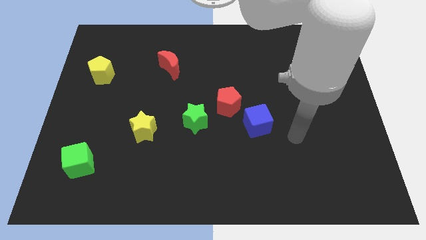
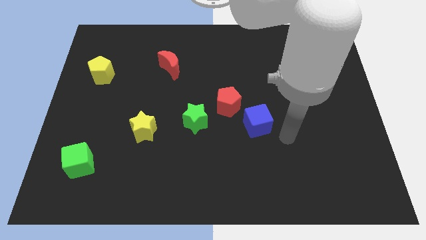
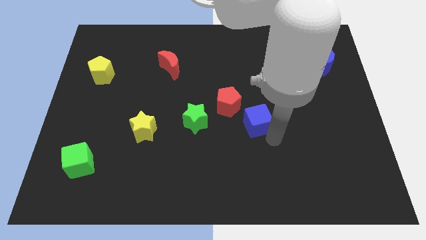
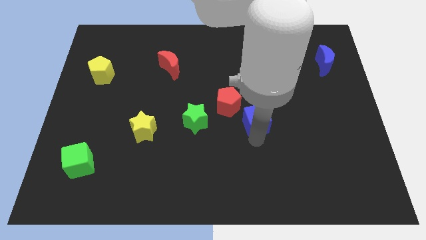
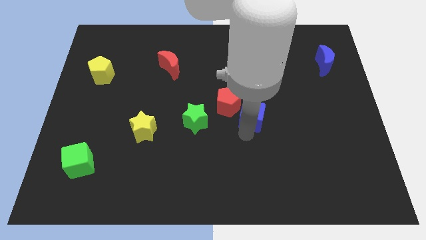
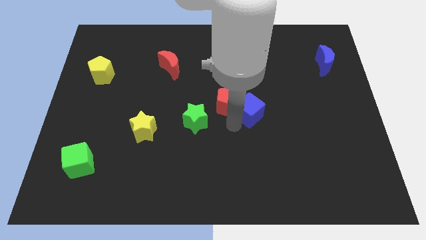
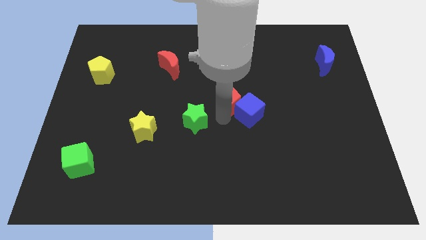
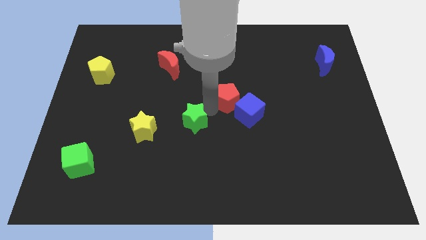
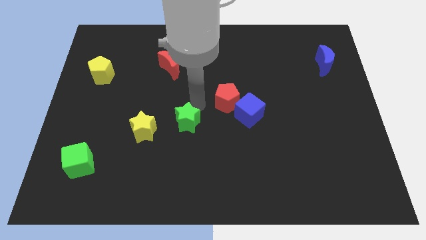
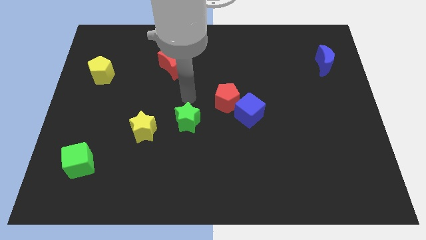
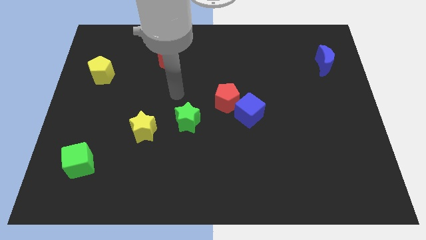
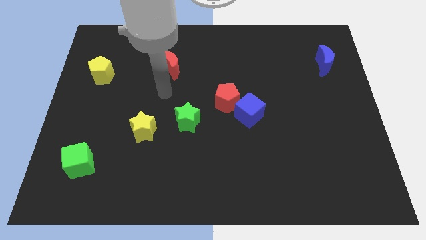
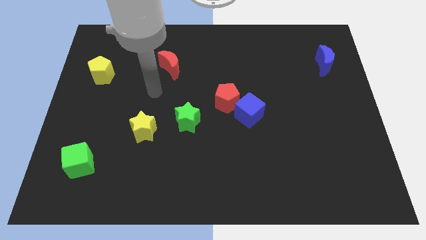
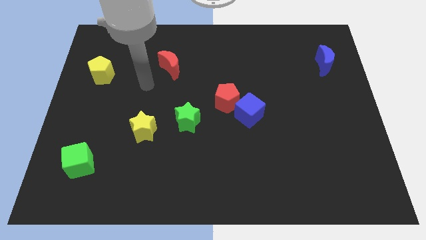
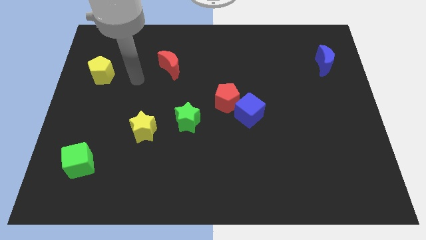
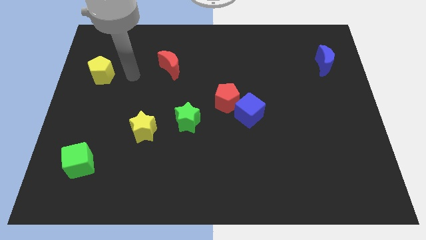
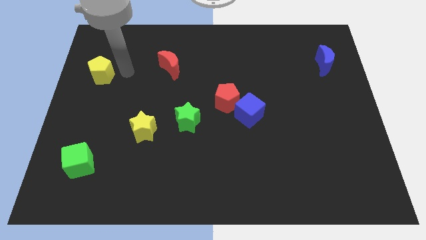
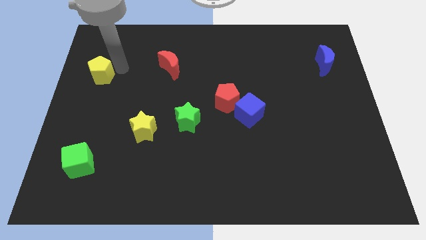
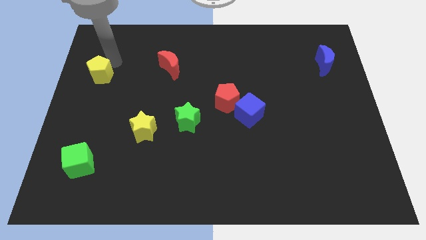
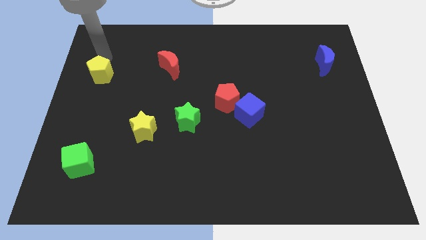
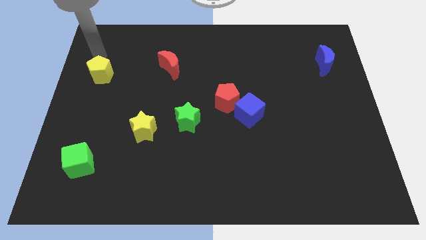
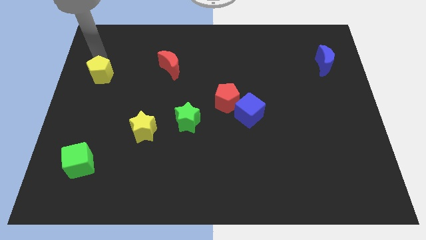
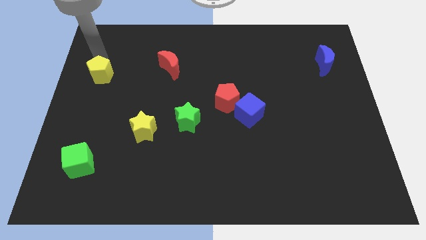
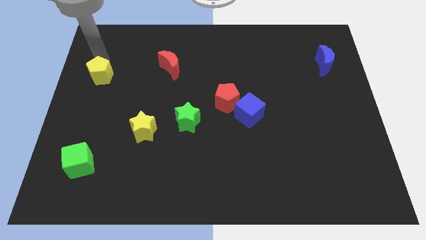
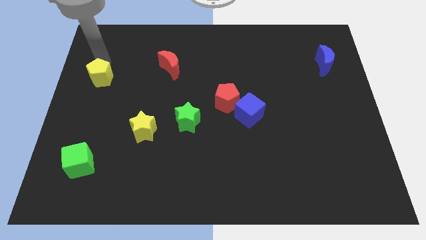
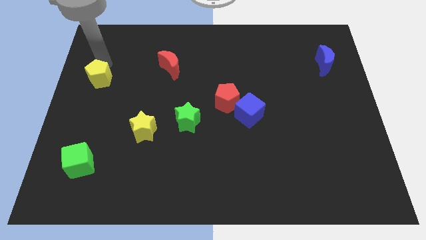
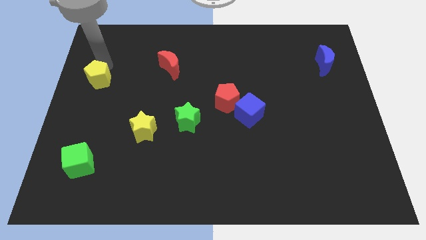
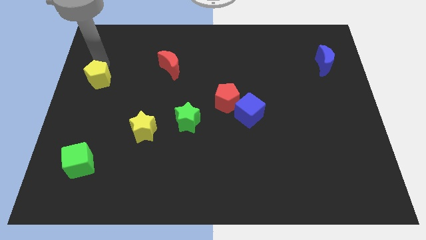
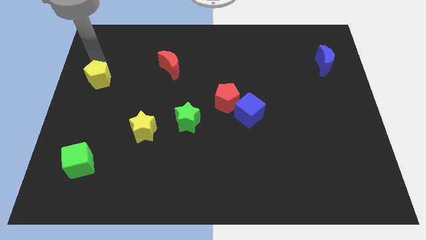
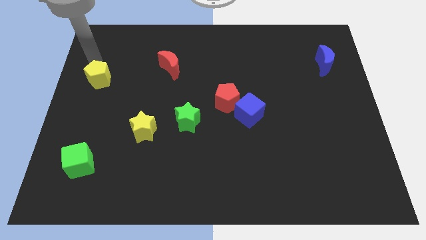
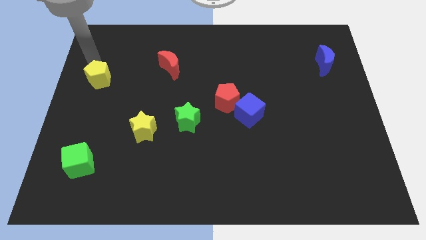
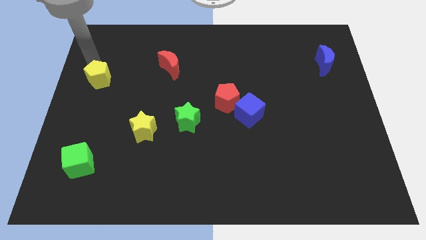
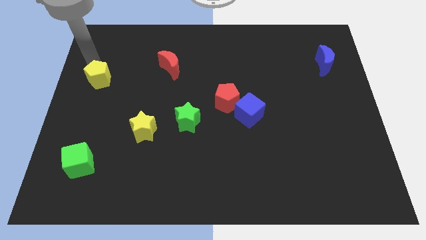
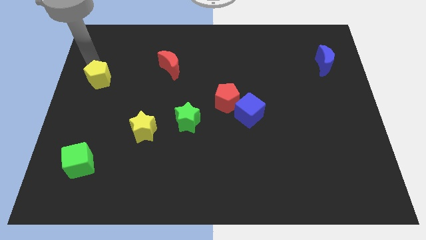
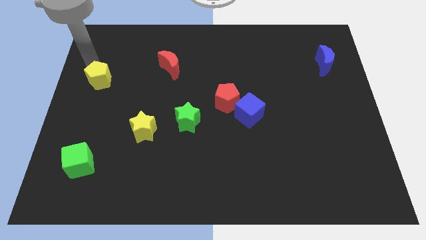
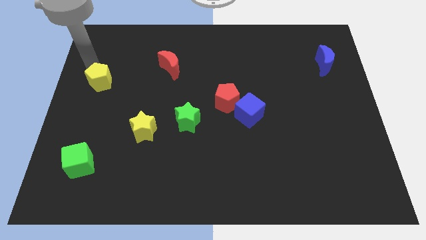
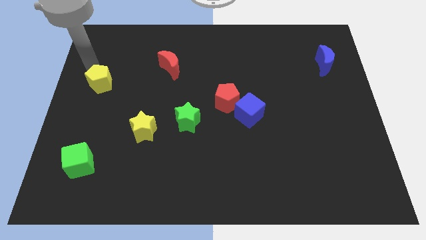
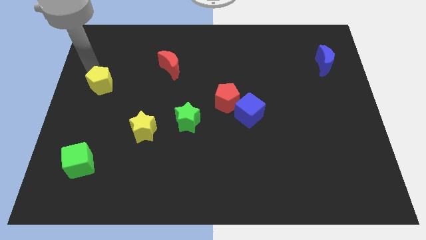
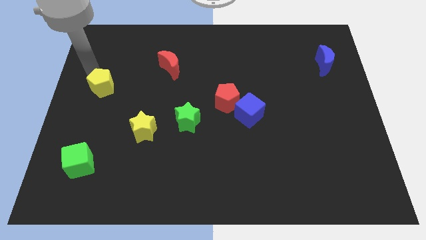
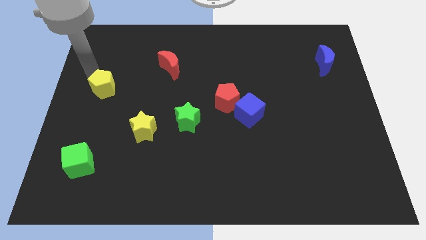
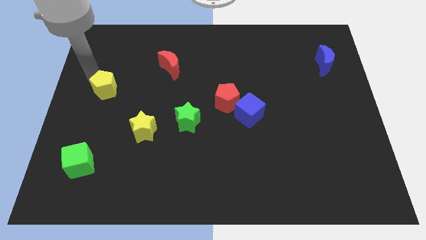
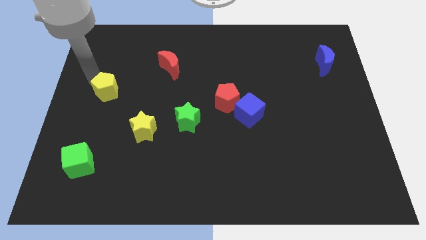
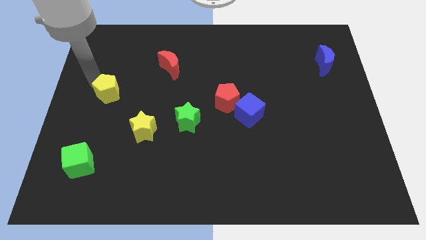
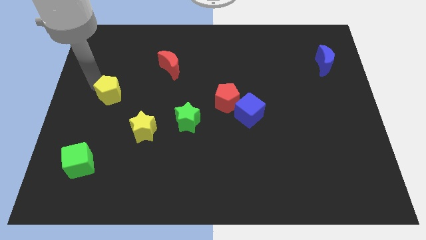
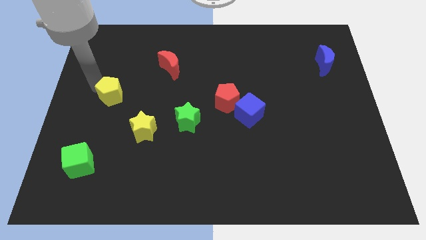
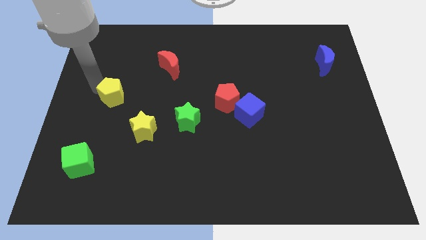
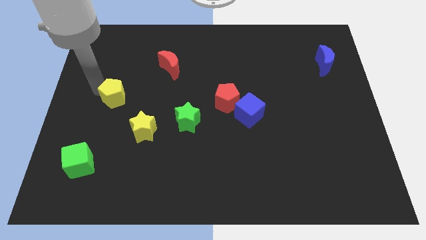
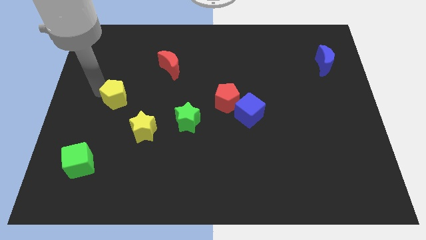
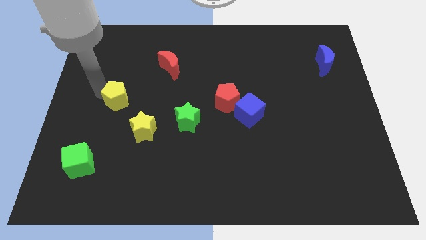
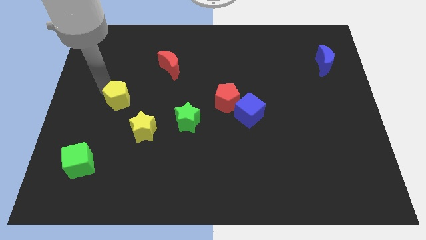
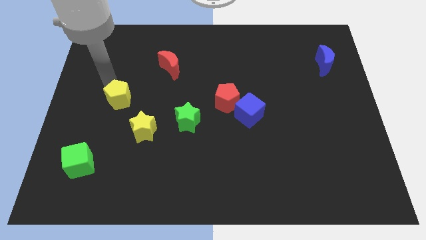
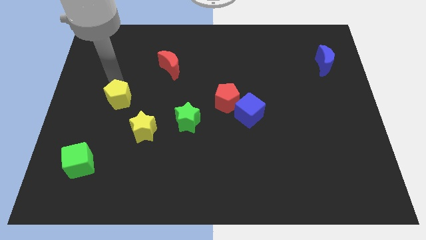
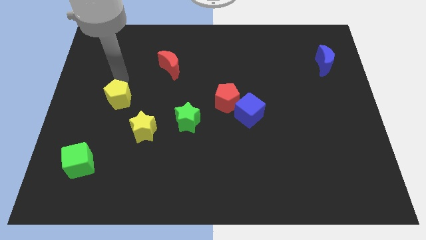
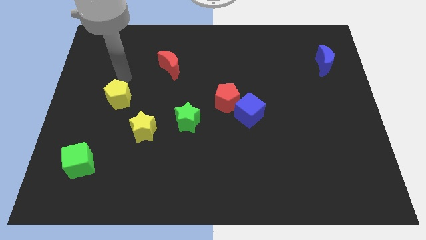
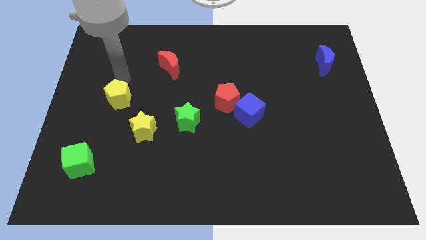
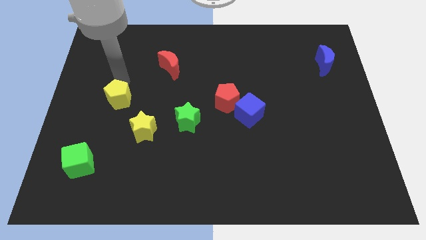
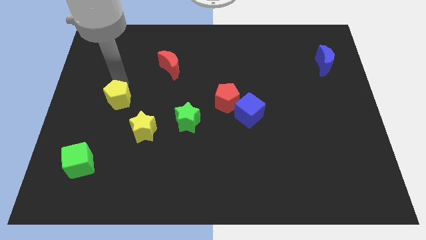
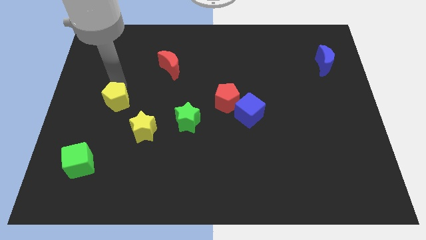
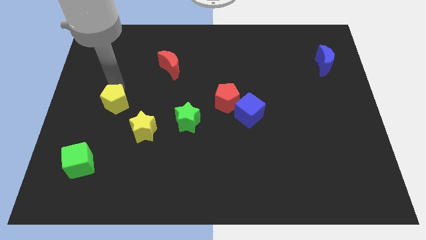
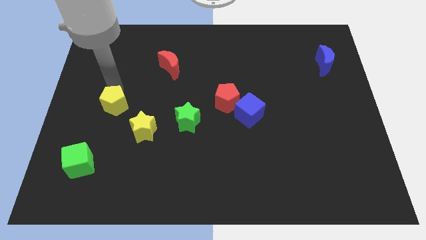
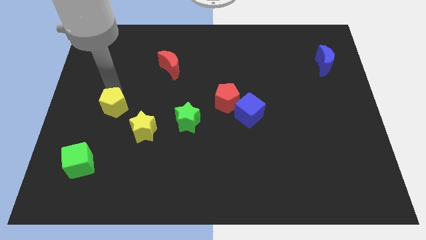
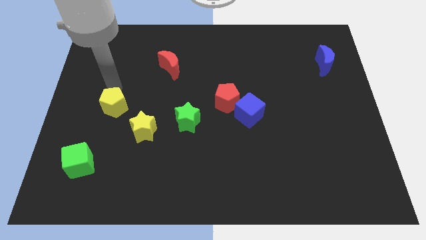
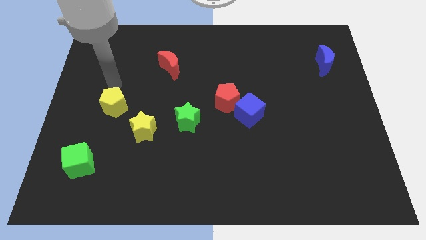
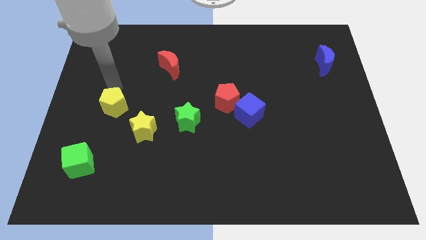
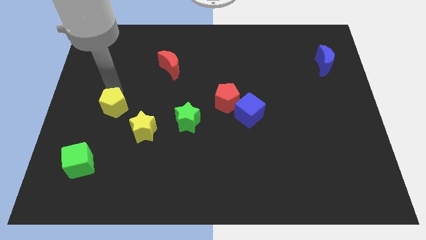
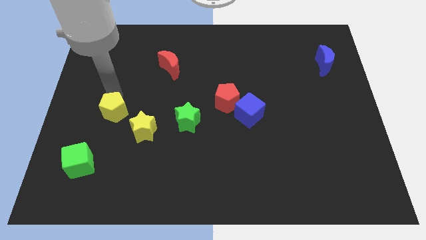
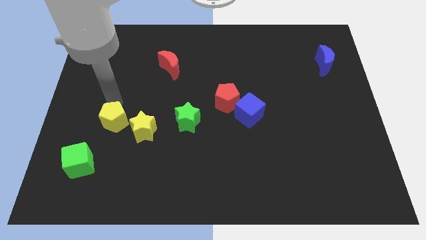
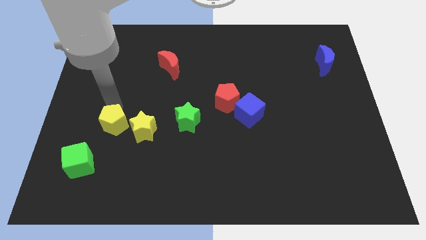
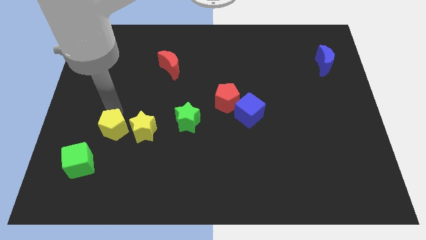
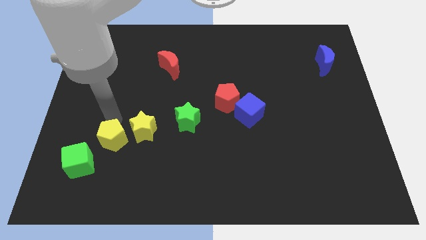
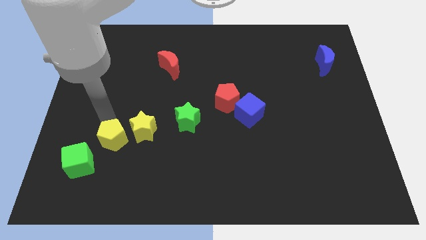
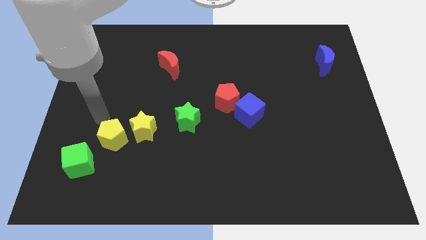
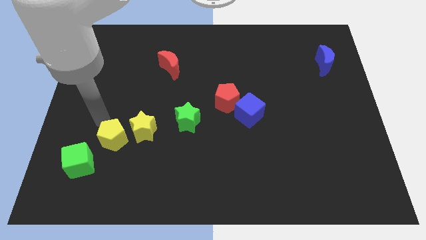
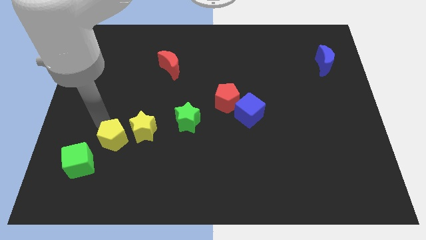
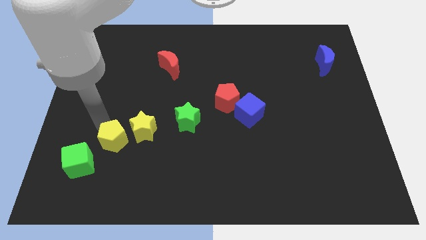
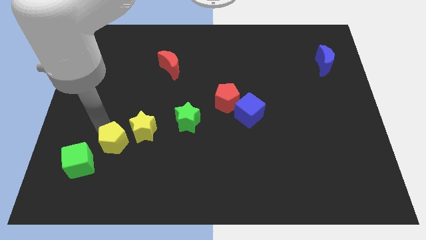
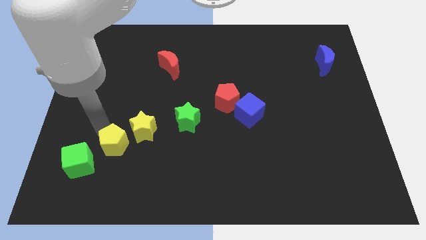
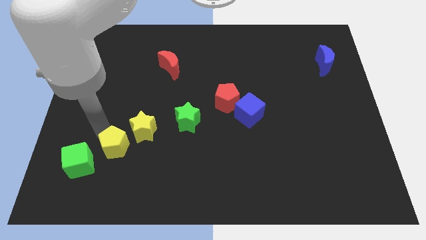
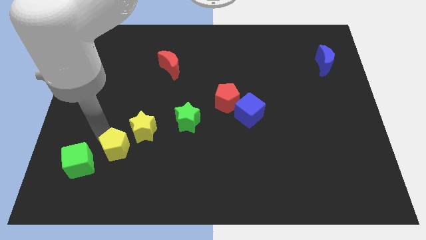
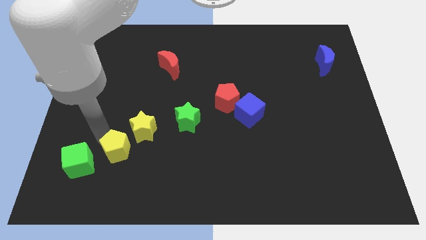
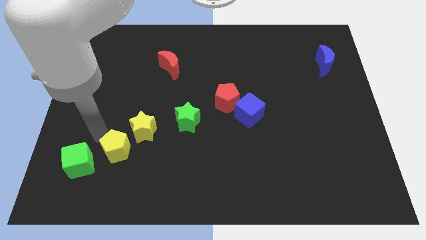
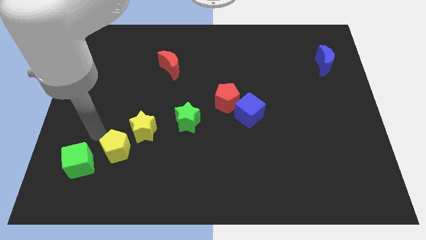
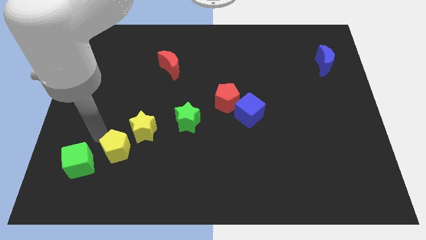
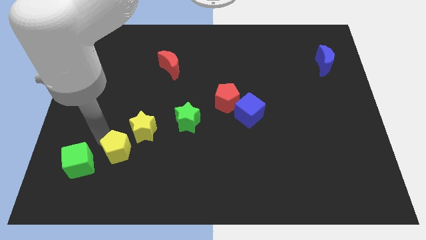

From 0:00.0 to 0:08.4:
slide the yellow pentagon below the yellow star
